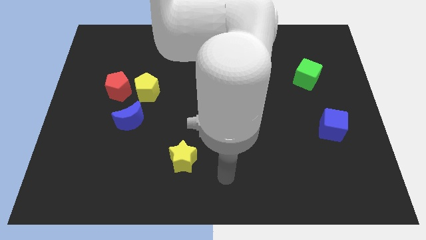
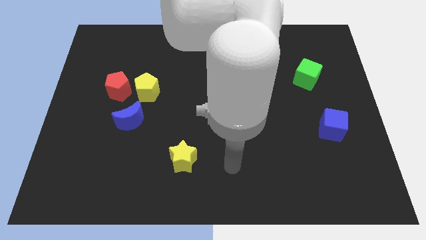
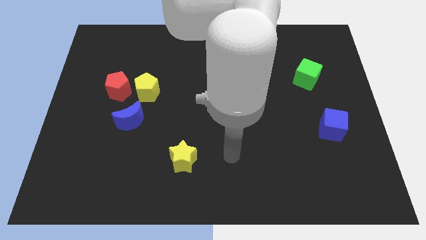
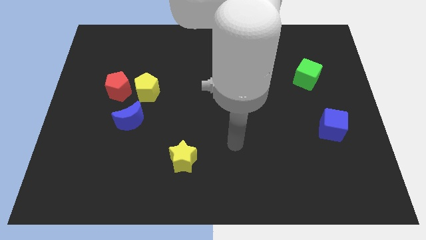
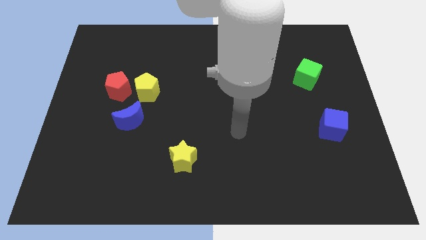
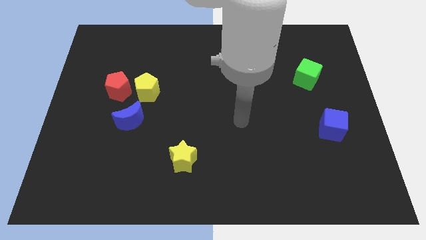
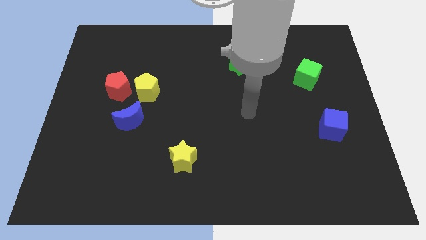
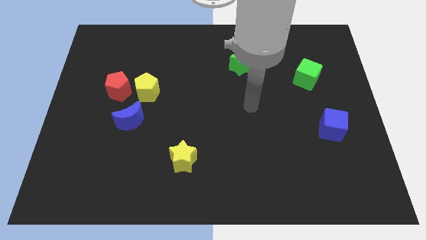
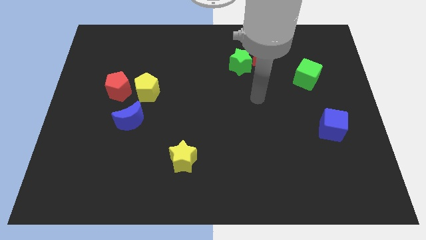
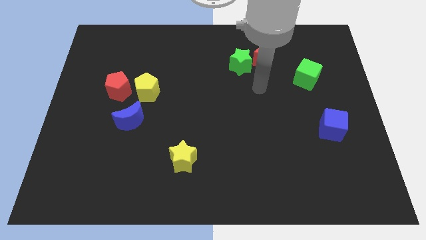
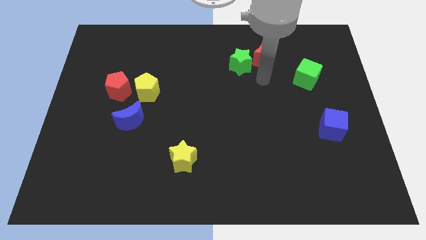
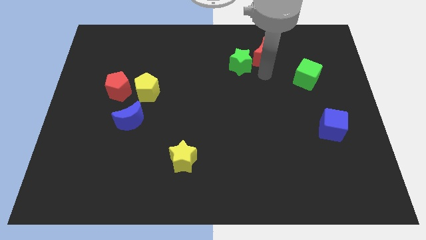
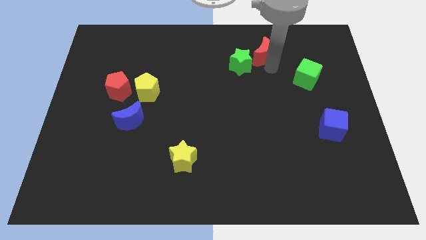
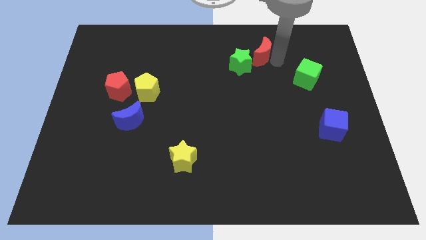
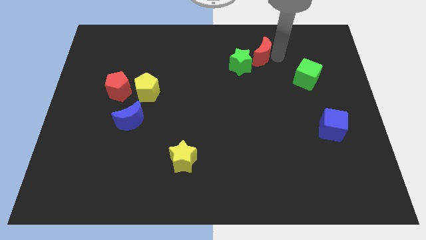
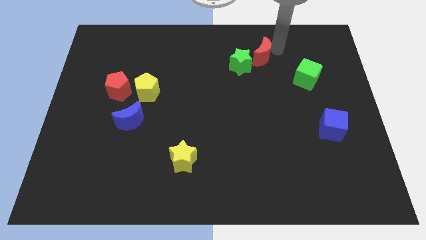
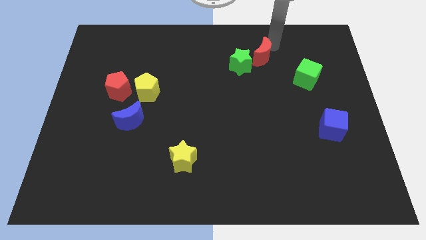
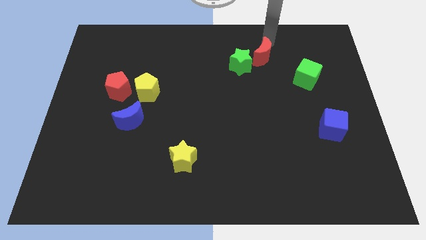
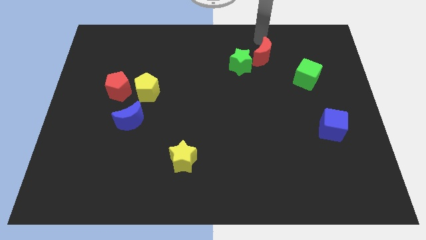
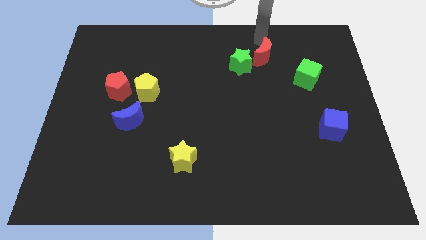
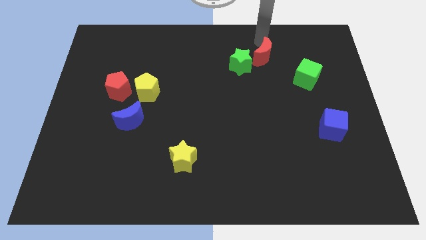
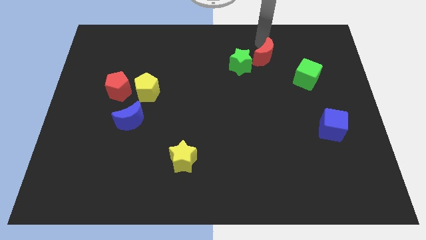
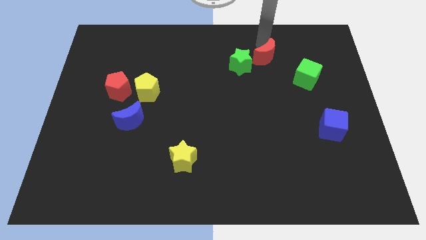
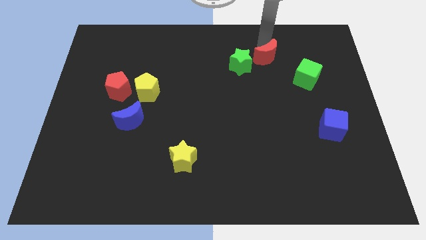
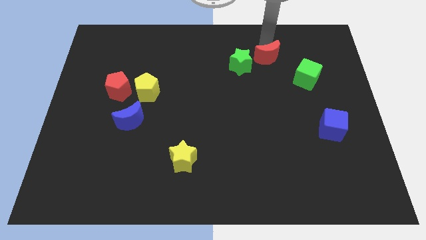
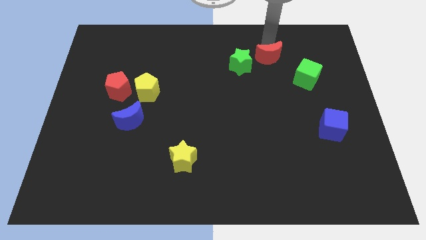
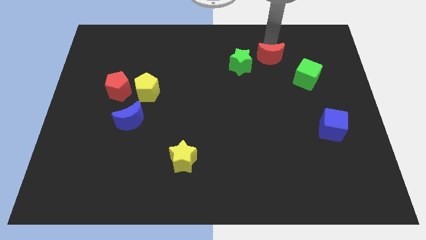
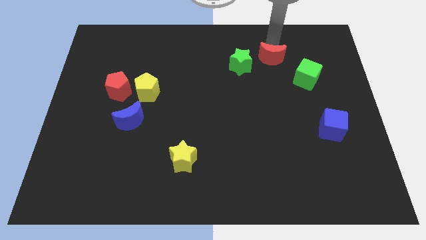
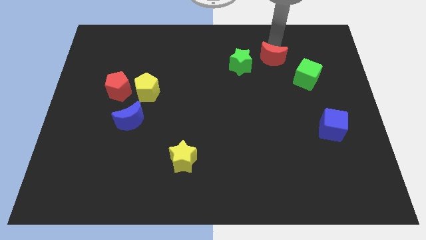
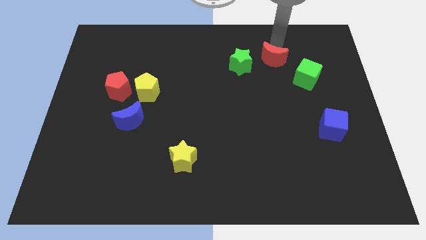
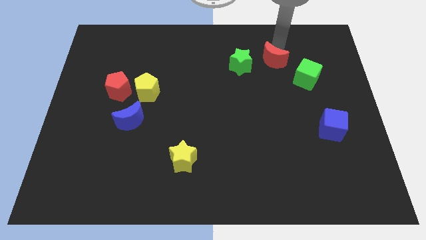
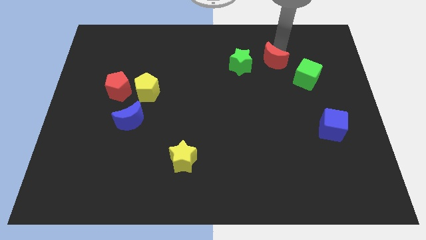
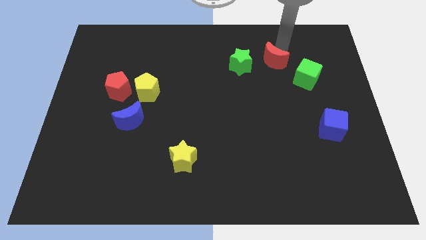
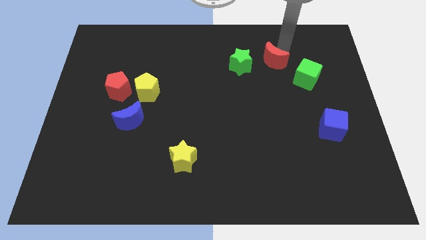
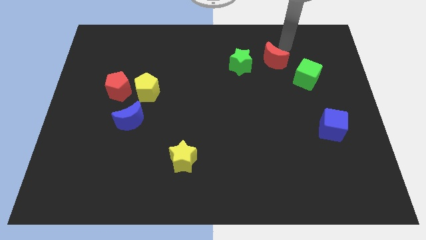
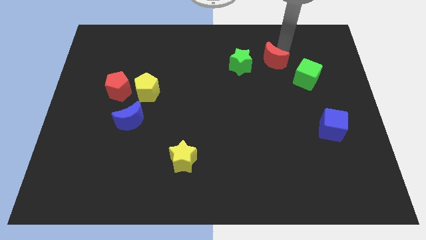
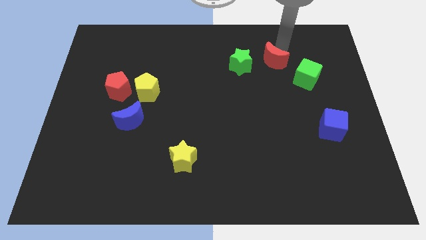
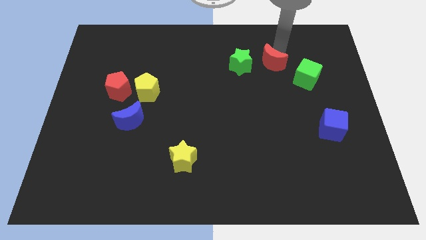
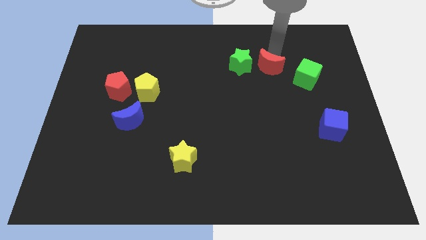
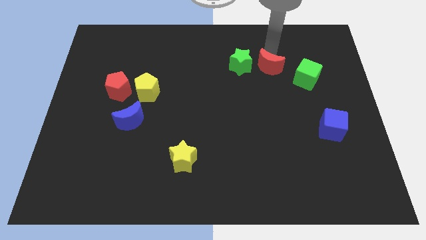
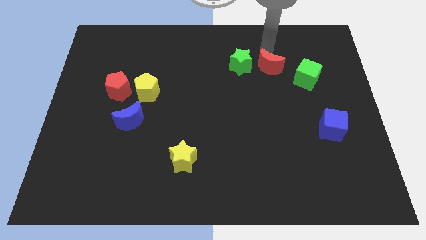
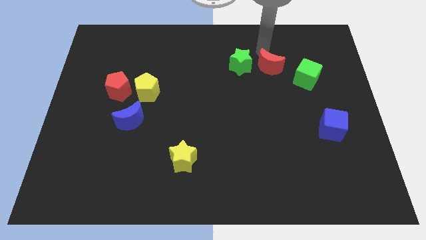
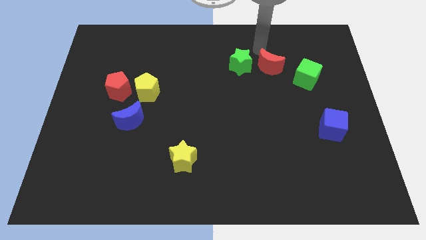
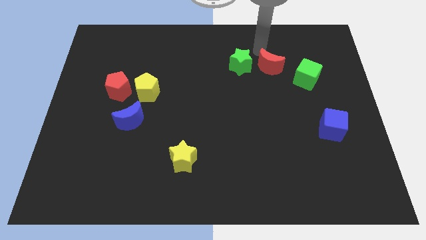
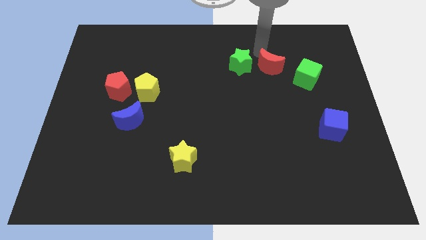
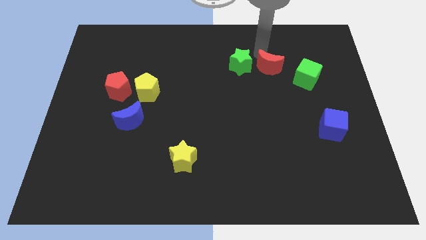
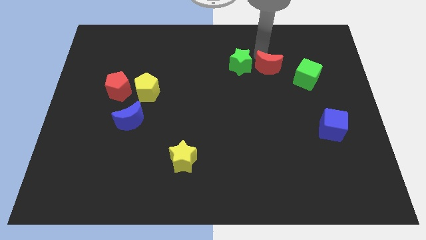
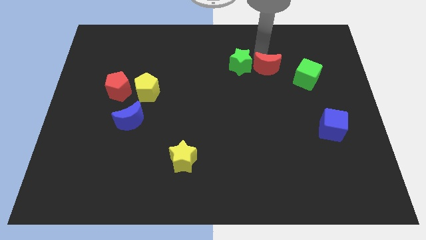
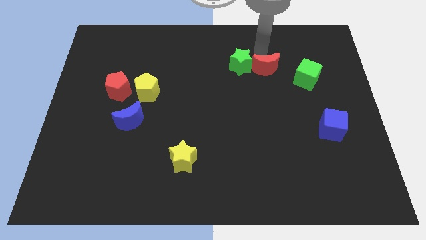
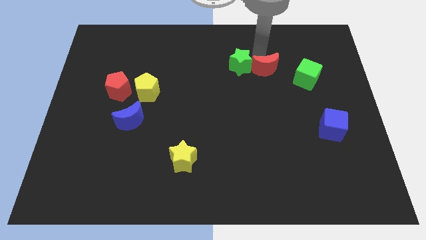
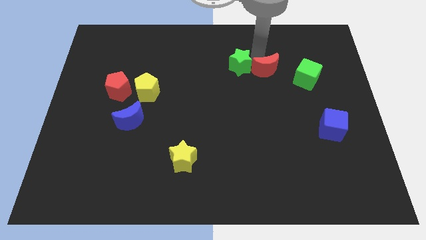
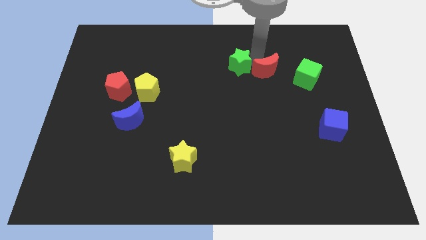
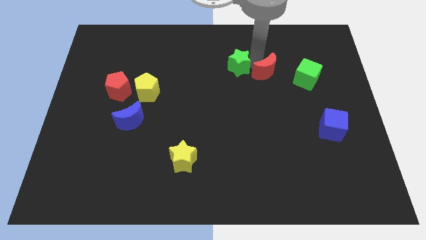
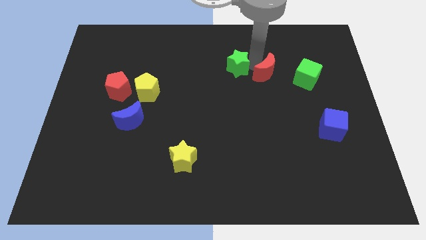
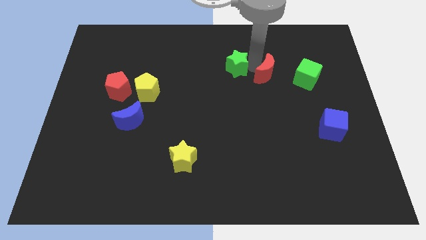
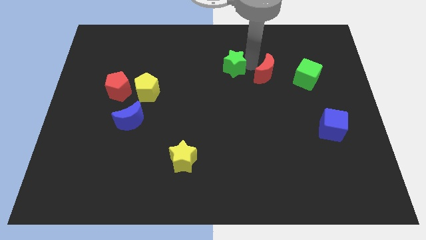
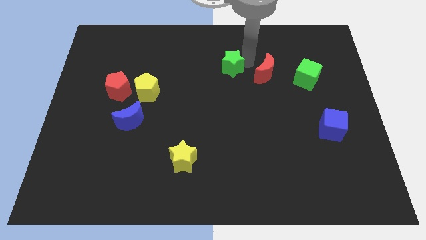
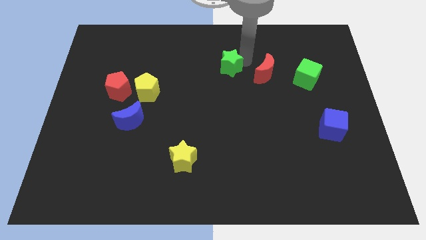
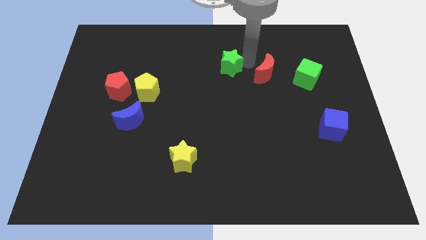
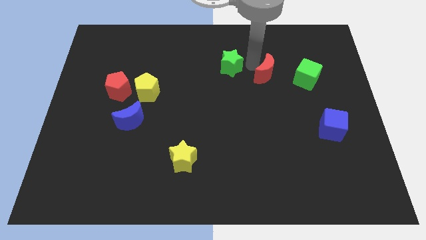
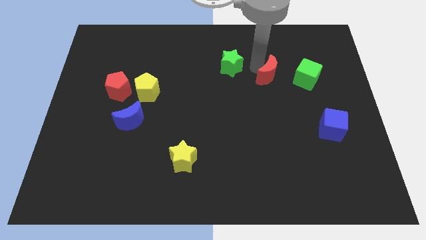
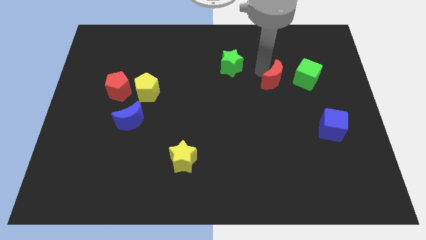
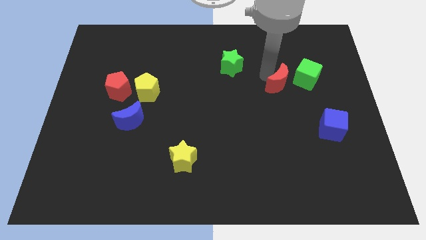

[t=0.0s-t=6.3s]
push the red moon slightly down and to the right

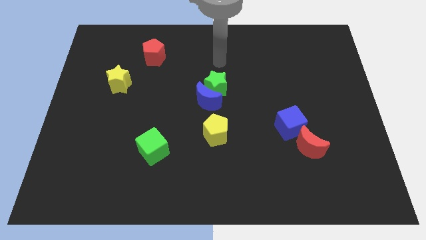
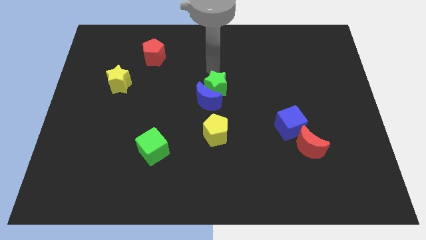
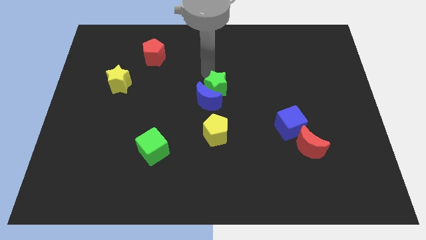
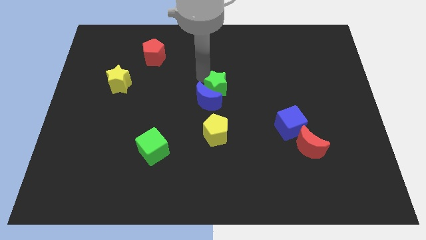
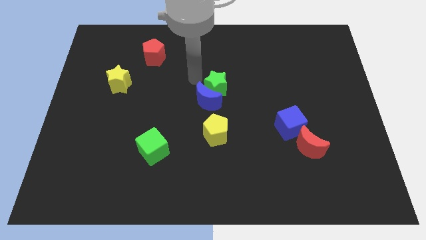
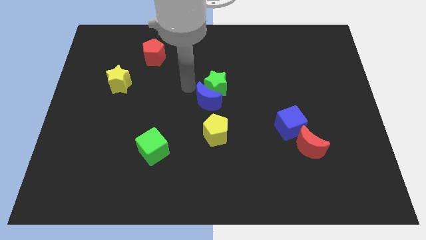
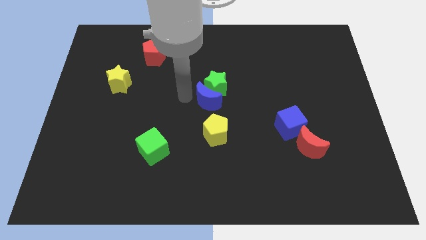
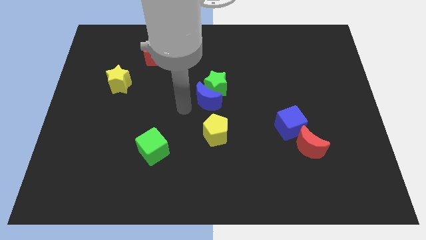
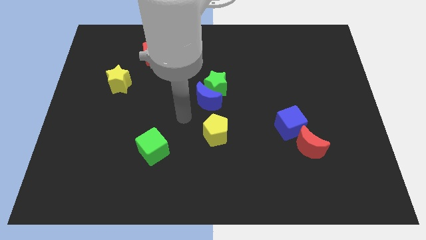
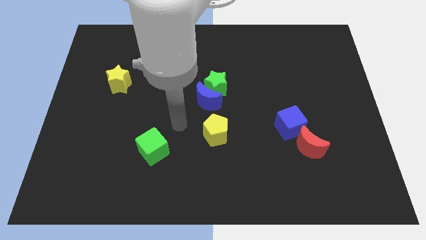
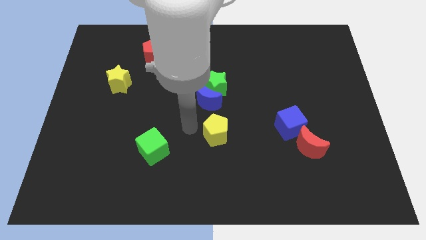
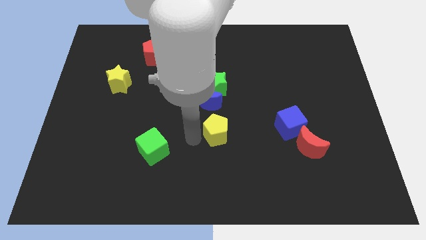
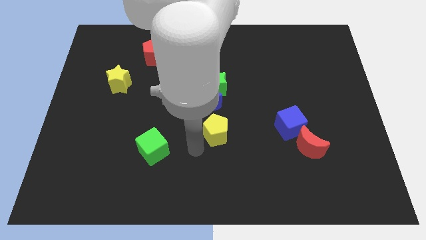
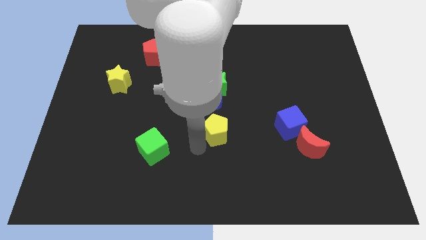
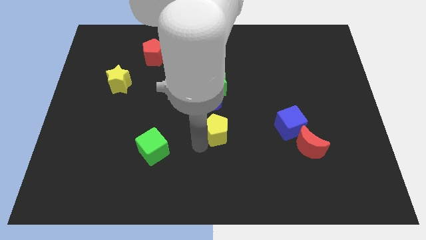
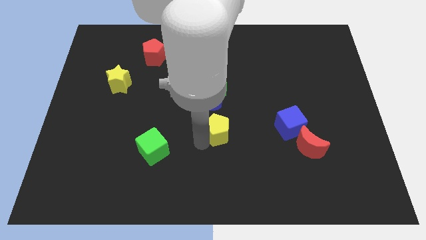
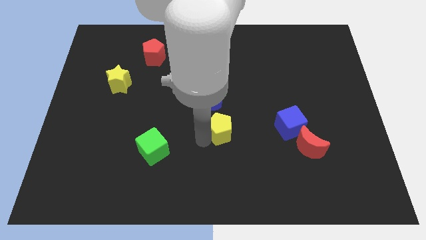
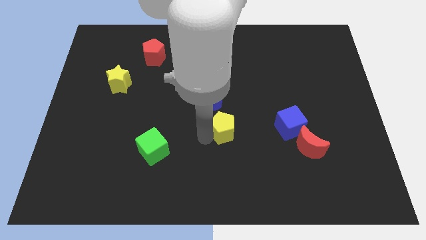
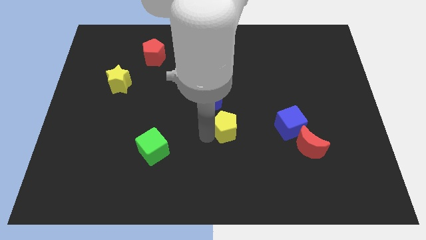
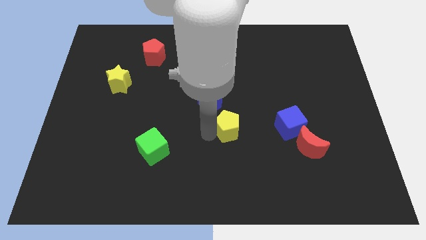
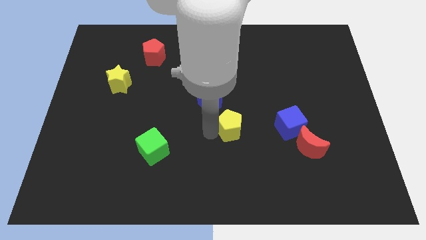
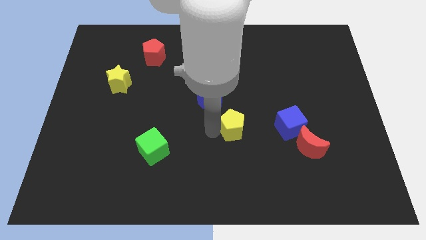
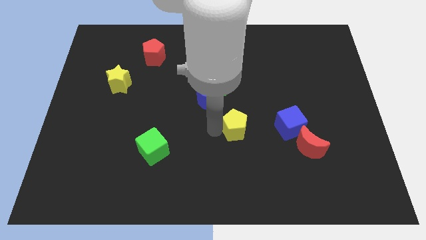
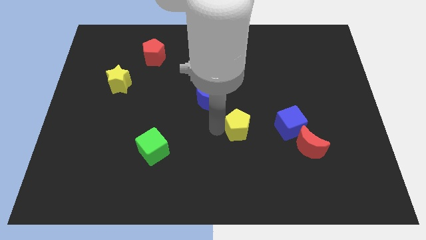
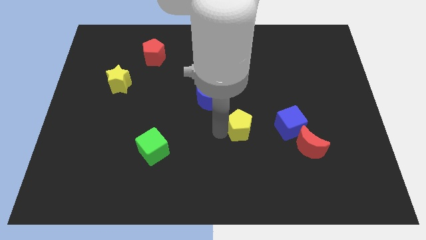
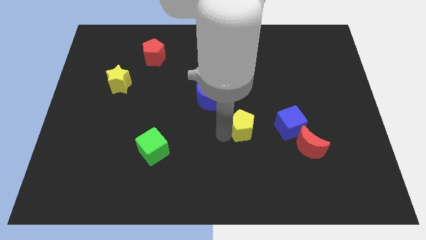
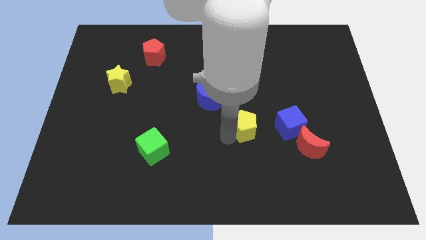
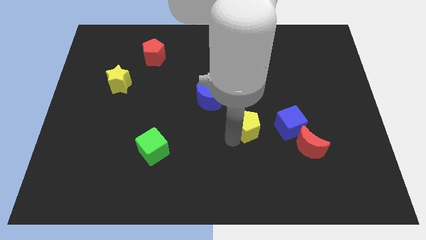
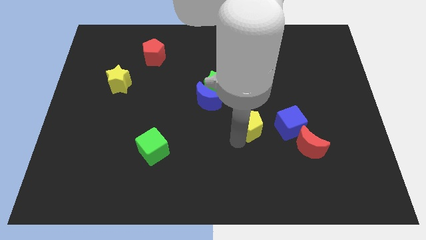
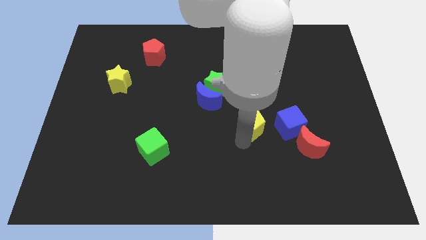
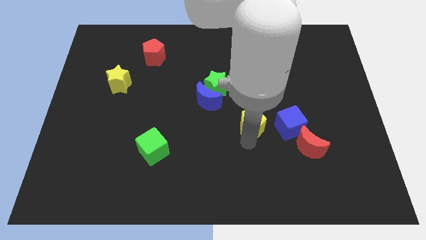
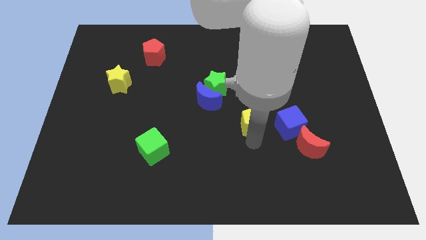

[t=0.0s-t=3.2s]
push the yellow pentagon a little upwards and to the right diagonally
